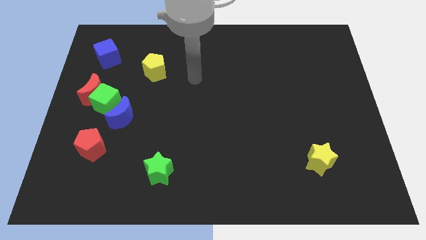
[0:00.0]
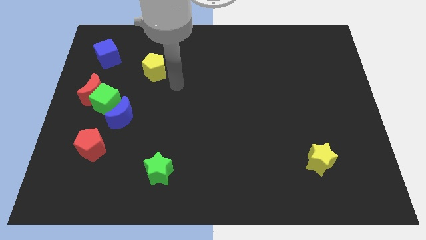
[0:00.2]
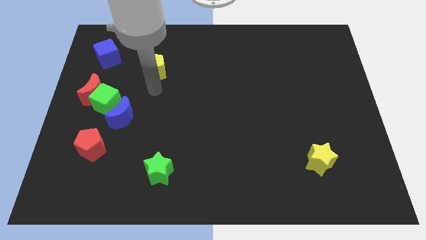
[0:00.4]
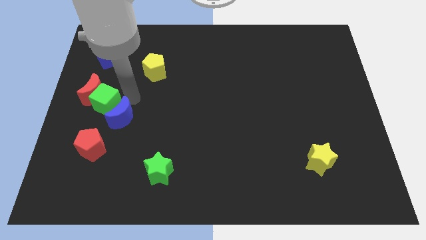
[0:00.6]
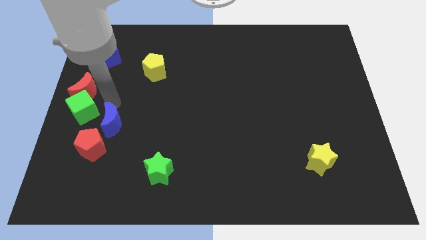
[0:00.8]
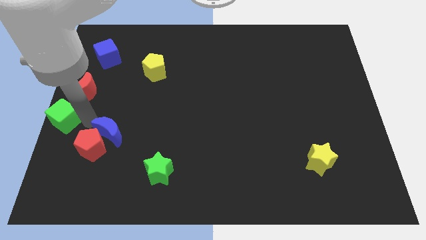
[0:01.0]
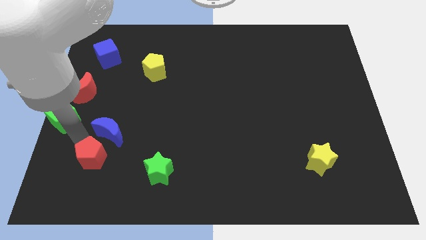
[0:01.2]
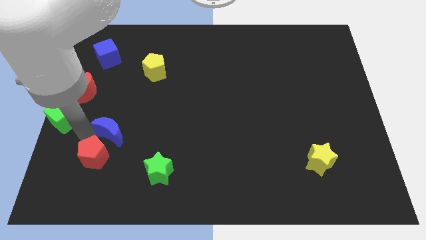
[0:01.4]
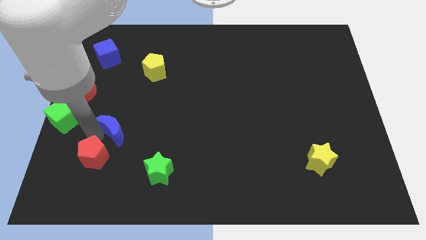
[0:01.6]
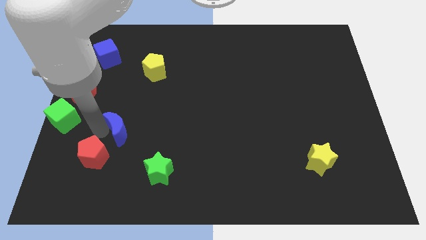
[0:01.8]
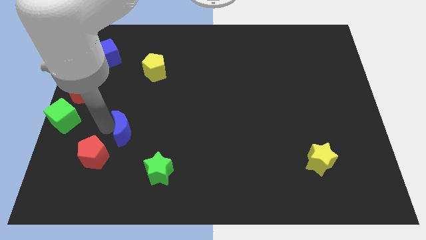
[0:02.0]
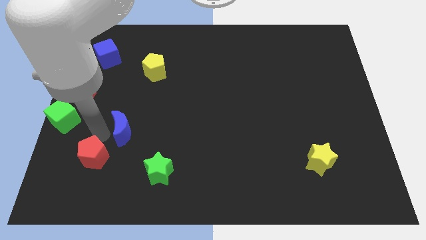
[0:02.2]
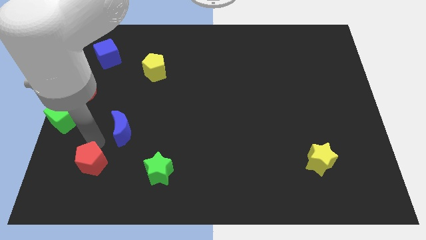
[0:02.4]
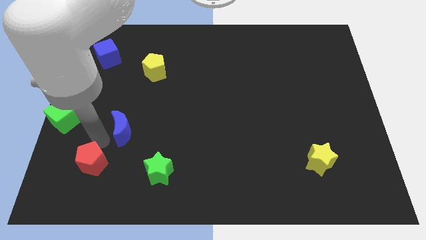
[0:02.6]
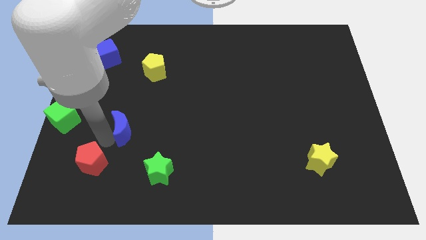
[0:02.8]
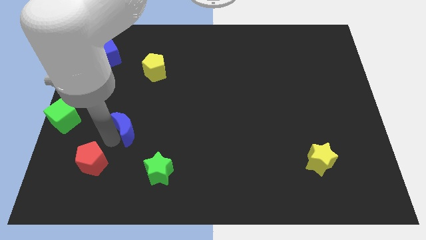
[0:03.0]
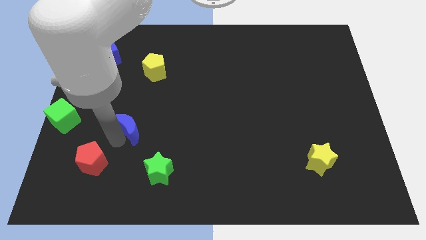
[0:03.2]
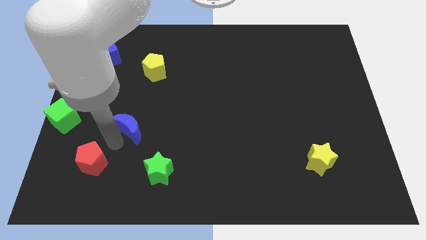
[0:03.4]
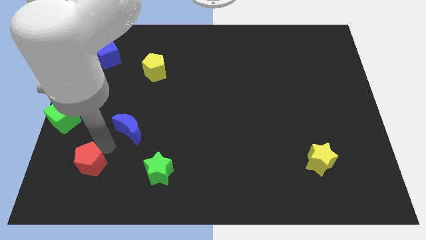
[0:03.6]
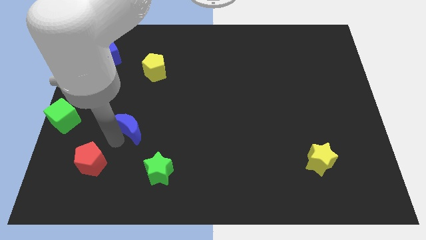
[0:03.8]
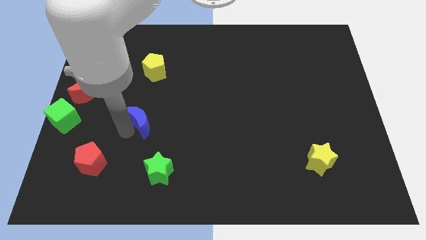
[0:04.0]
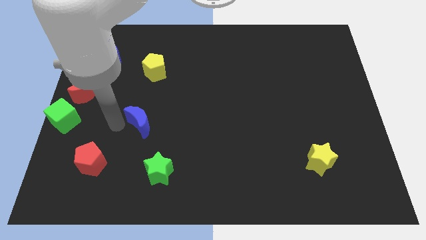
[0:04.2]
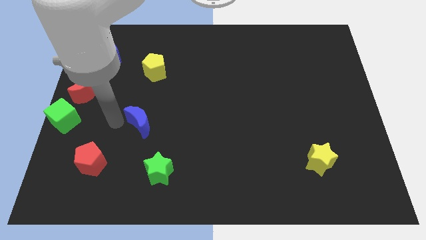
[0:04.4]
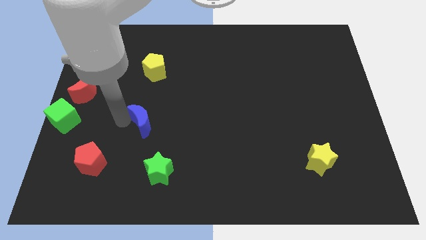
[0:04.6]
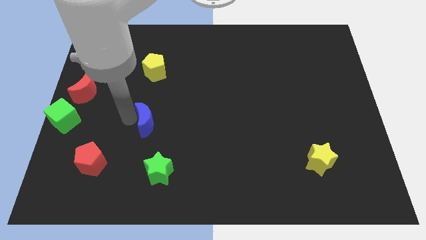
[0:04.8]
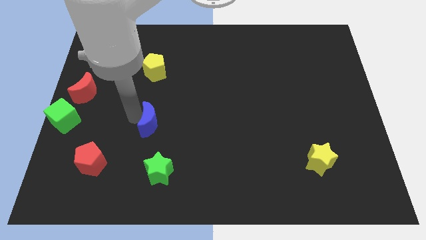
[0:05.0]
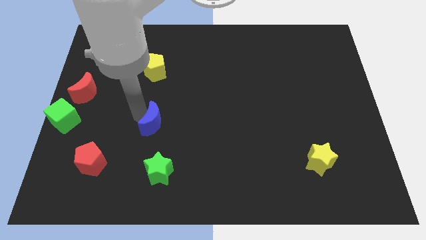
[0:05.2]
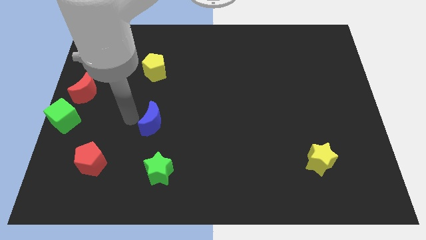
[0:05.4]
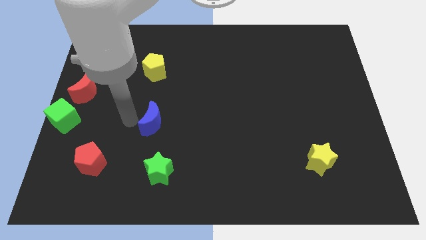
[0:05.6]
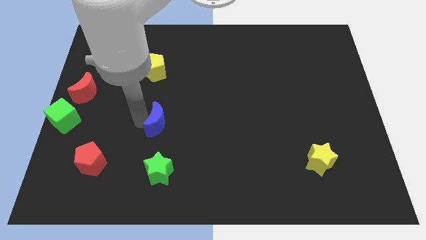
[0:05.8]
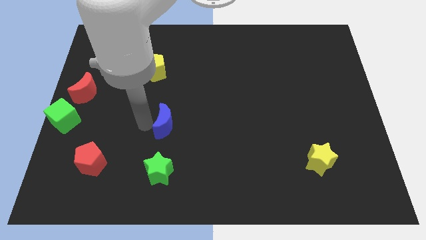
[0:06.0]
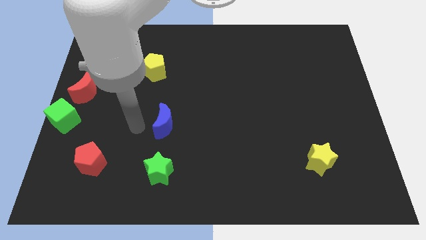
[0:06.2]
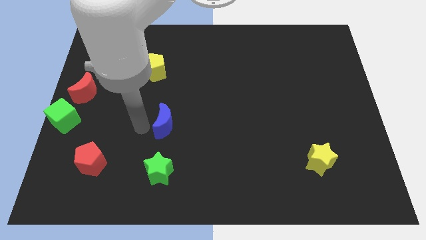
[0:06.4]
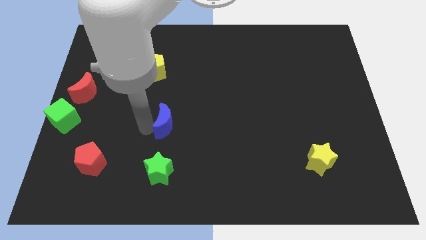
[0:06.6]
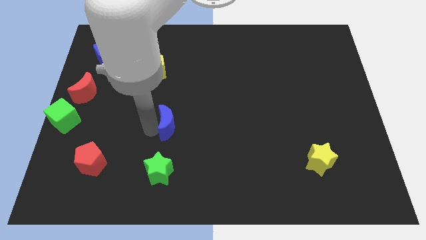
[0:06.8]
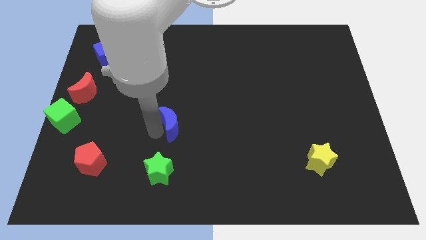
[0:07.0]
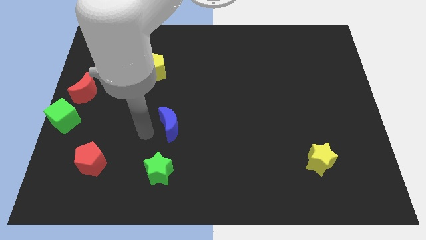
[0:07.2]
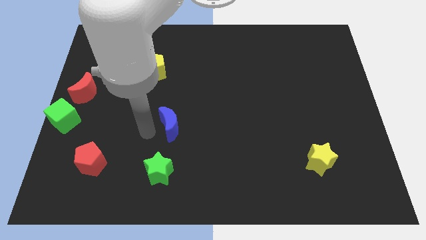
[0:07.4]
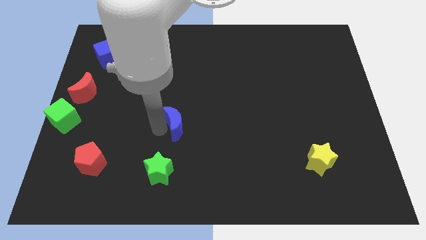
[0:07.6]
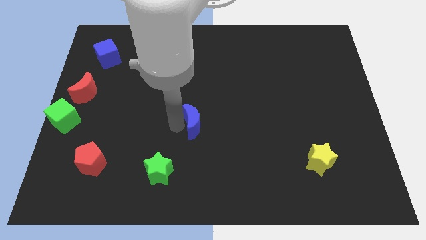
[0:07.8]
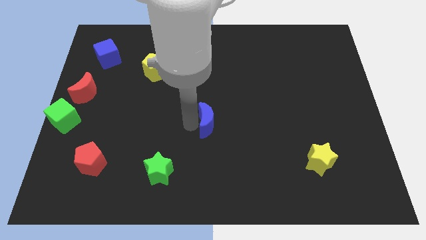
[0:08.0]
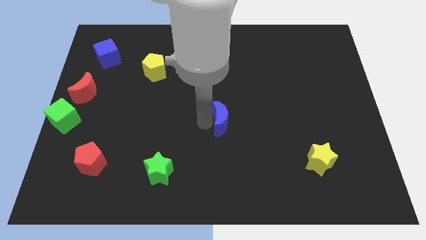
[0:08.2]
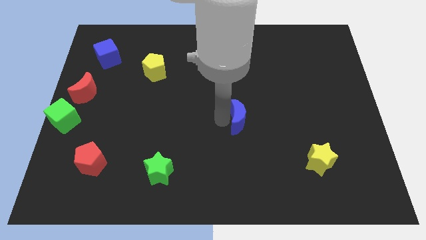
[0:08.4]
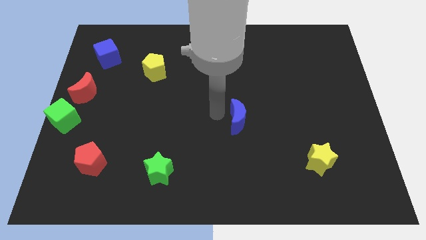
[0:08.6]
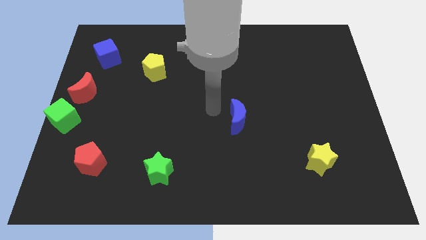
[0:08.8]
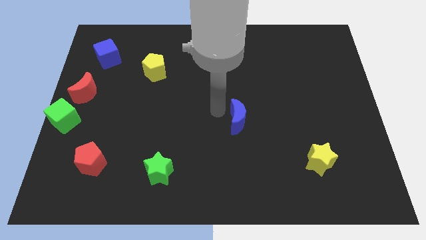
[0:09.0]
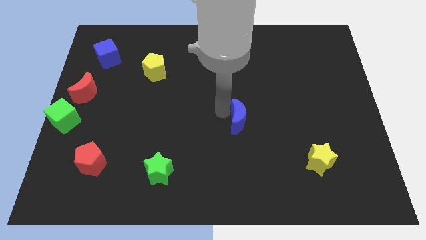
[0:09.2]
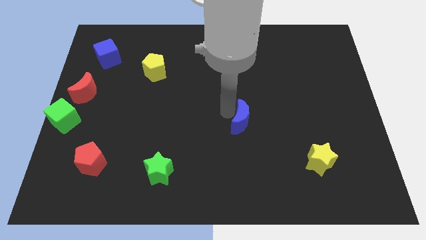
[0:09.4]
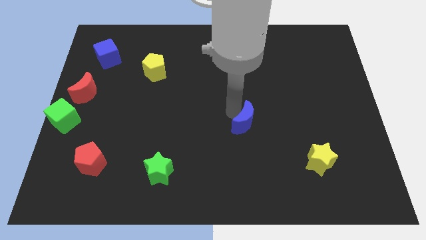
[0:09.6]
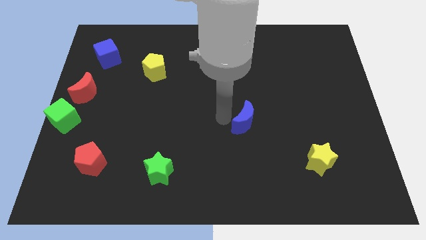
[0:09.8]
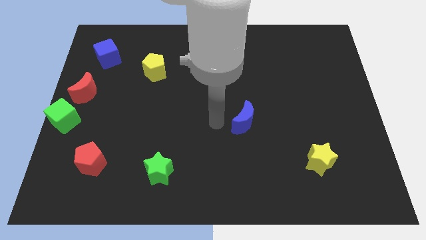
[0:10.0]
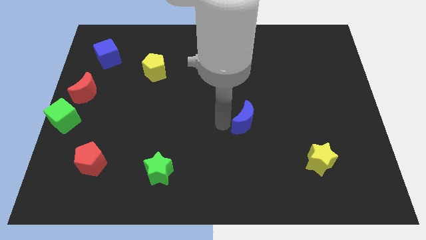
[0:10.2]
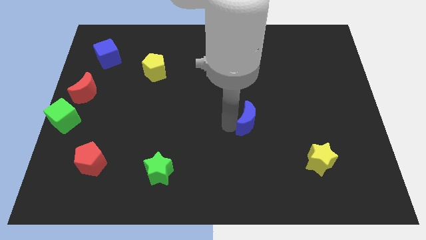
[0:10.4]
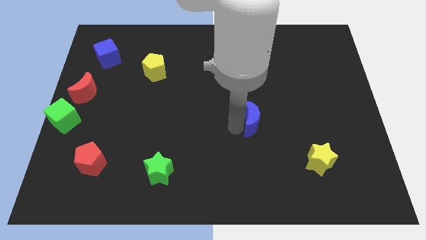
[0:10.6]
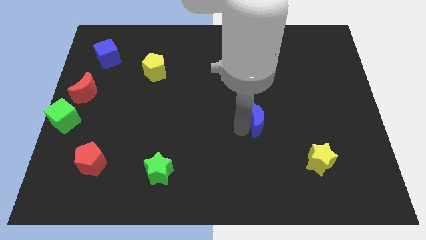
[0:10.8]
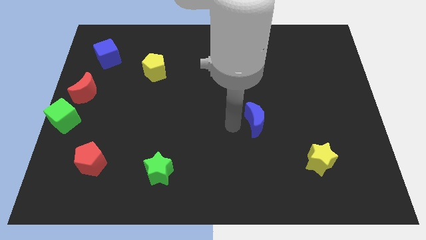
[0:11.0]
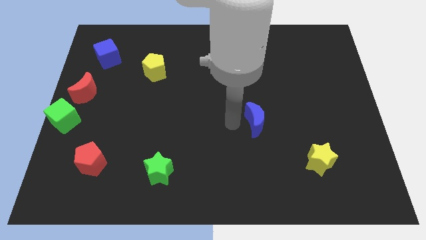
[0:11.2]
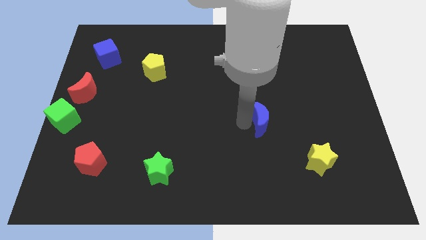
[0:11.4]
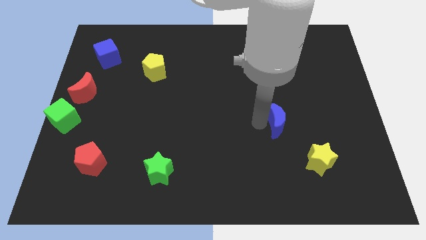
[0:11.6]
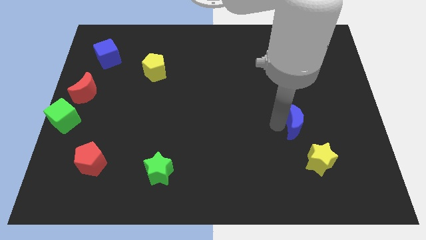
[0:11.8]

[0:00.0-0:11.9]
put the blue moon to the top side of the yellow star

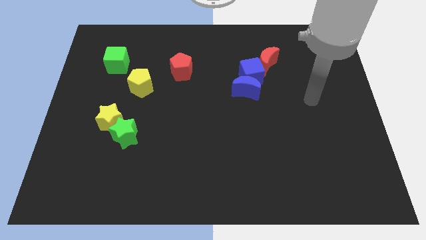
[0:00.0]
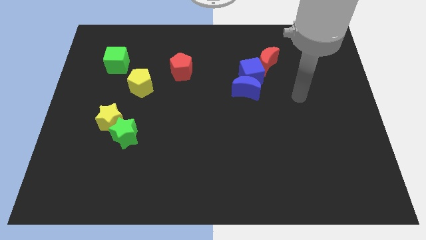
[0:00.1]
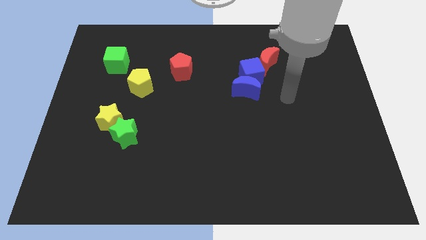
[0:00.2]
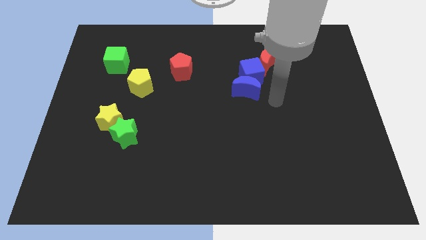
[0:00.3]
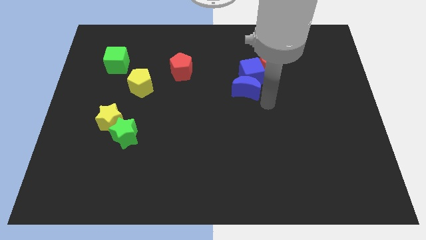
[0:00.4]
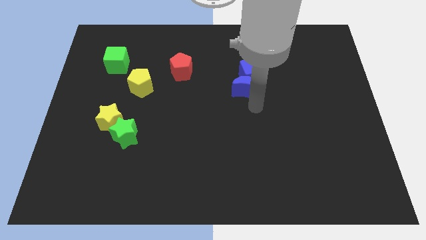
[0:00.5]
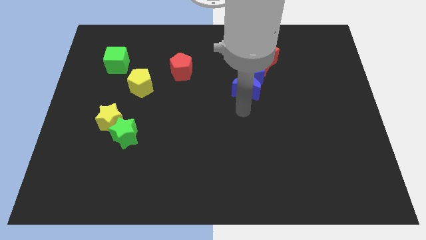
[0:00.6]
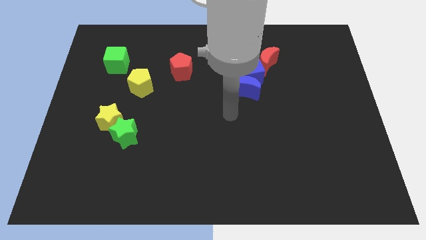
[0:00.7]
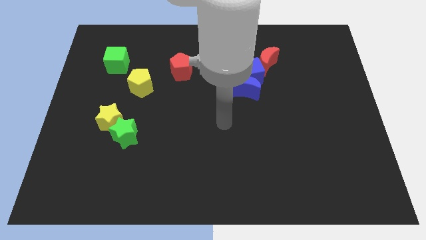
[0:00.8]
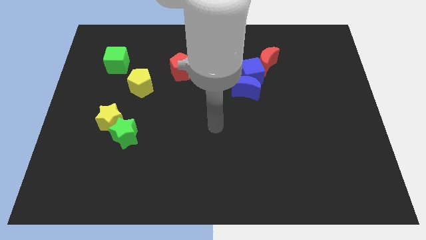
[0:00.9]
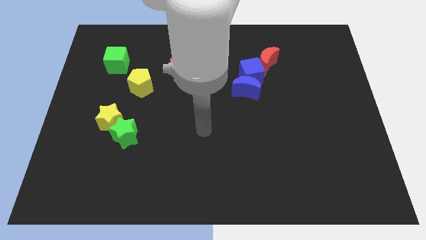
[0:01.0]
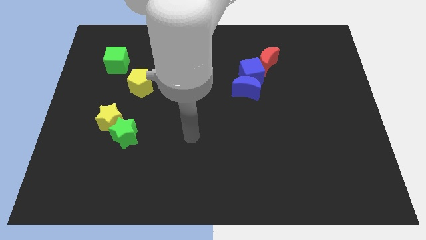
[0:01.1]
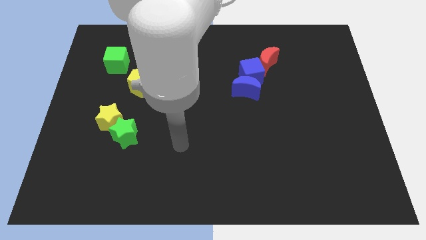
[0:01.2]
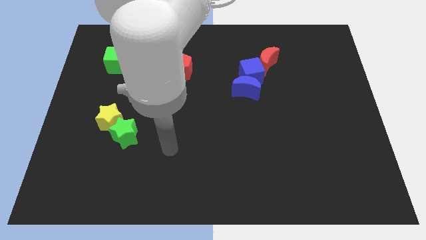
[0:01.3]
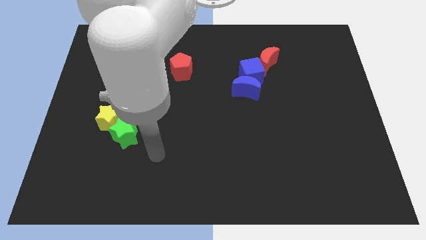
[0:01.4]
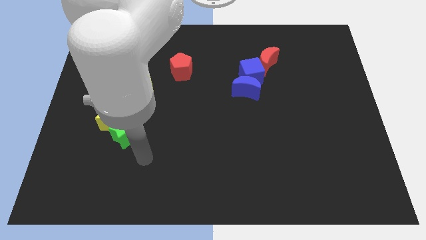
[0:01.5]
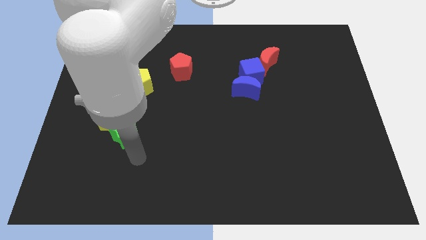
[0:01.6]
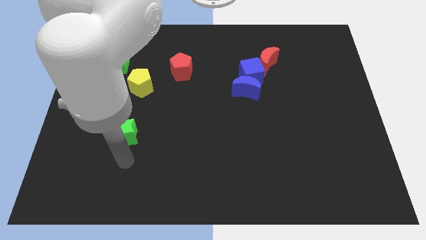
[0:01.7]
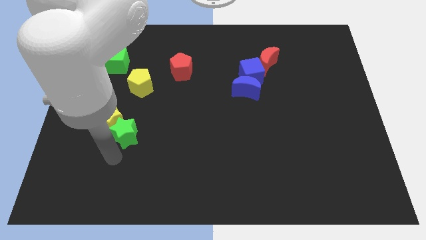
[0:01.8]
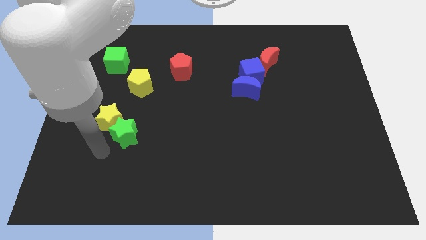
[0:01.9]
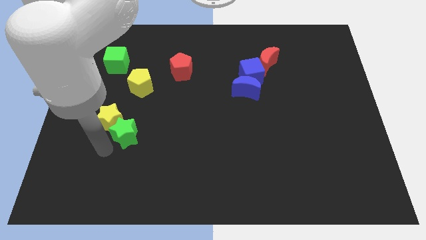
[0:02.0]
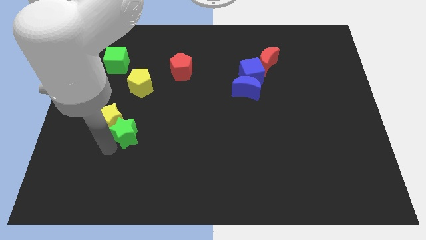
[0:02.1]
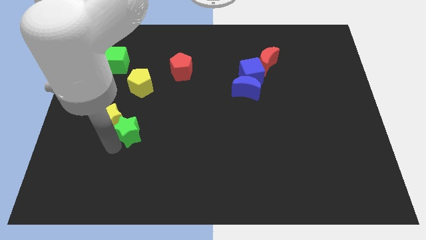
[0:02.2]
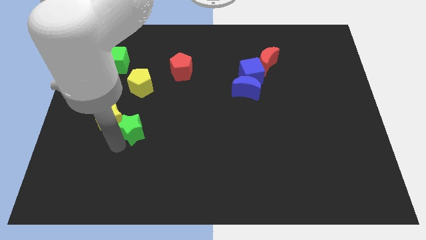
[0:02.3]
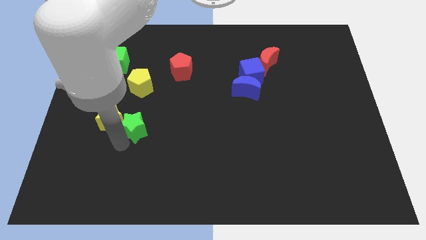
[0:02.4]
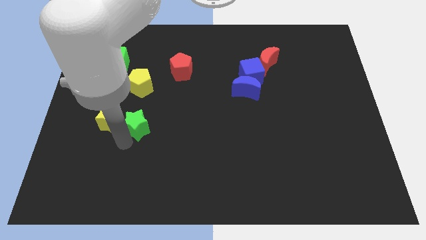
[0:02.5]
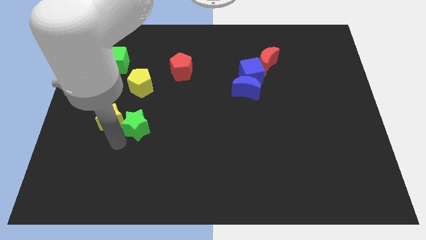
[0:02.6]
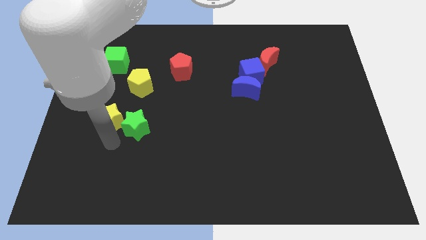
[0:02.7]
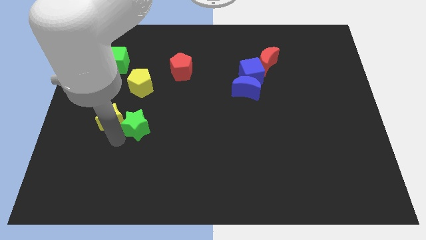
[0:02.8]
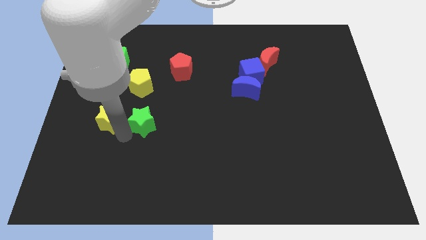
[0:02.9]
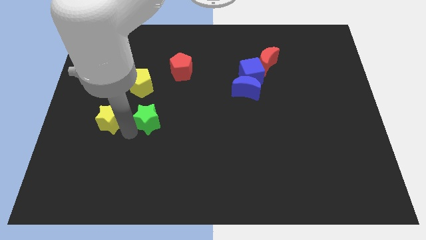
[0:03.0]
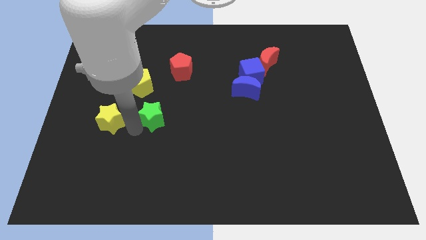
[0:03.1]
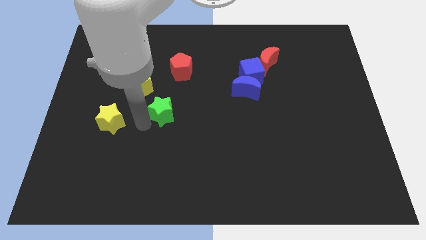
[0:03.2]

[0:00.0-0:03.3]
push the green star below the red pentagon
